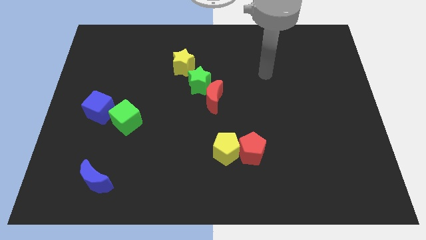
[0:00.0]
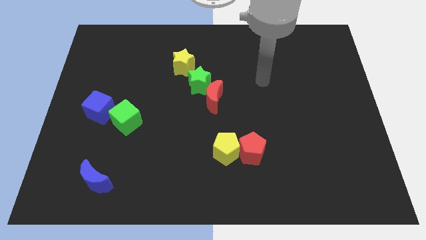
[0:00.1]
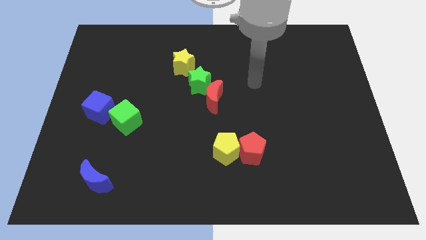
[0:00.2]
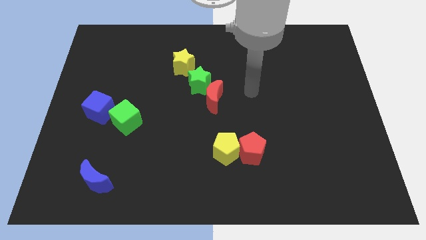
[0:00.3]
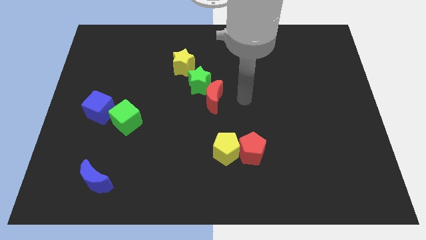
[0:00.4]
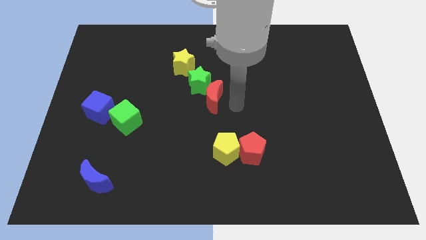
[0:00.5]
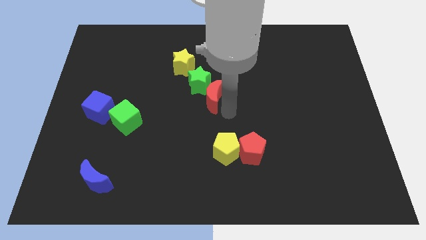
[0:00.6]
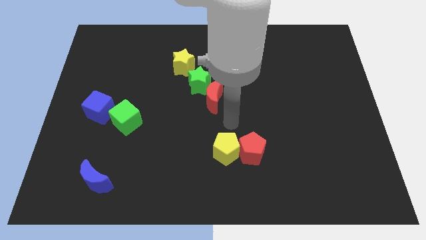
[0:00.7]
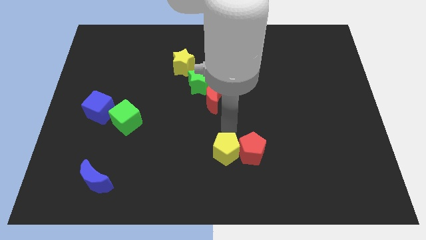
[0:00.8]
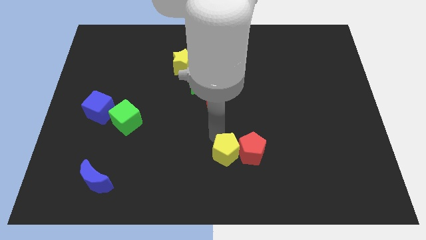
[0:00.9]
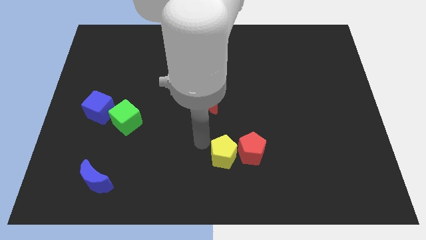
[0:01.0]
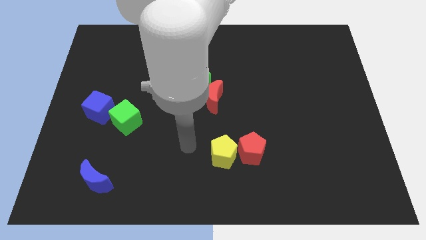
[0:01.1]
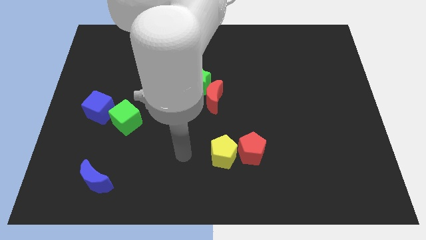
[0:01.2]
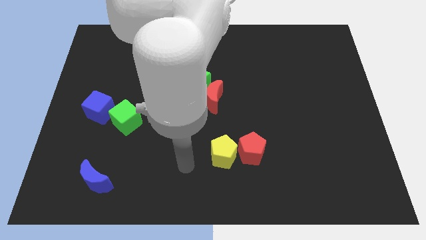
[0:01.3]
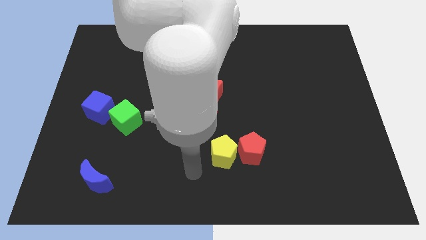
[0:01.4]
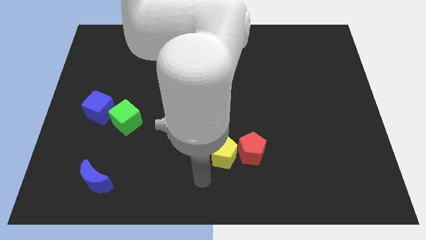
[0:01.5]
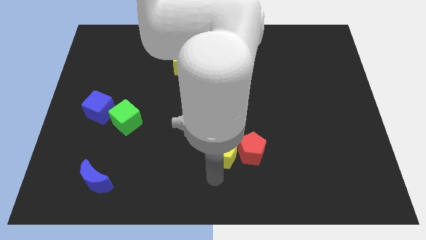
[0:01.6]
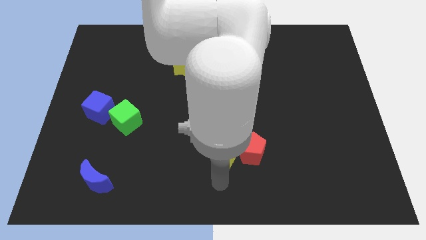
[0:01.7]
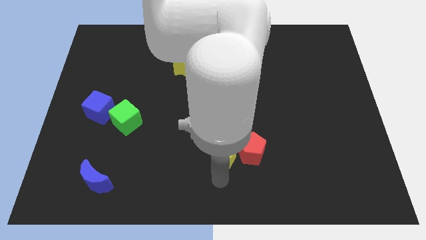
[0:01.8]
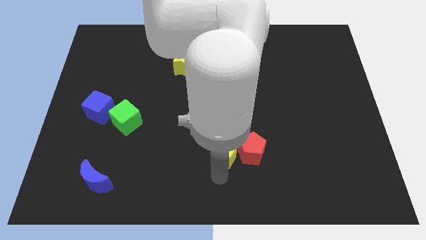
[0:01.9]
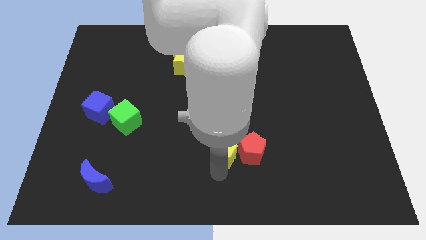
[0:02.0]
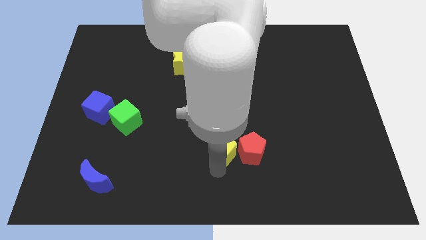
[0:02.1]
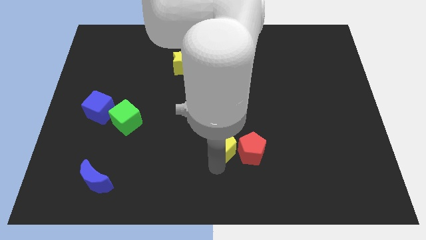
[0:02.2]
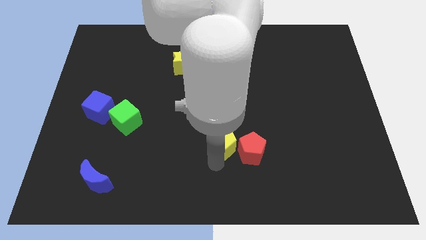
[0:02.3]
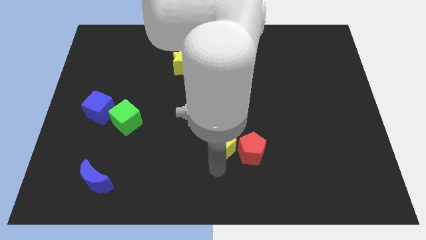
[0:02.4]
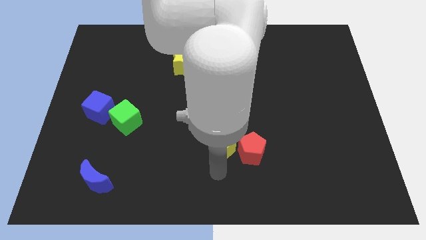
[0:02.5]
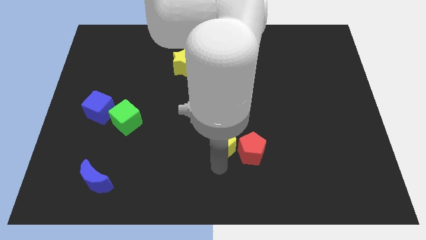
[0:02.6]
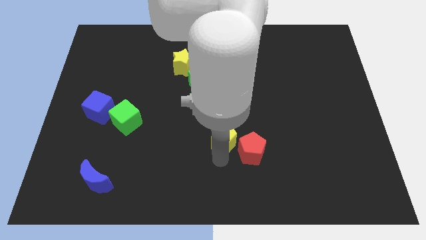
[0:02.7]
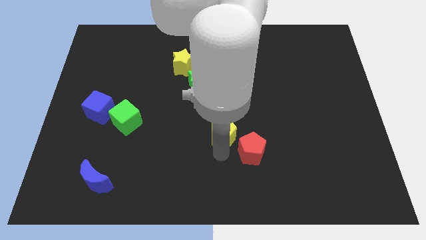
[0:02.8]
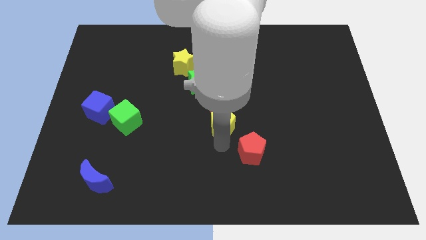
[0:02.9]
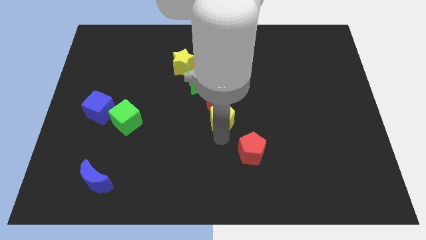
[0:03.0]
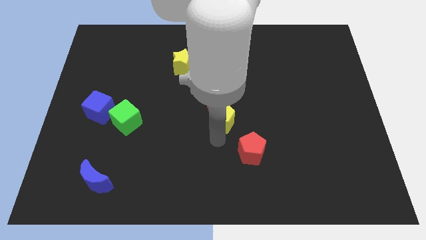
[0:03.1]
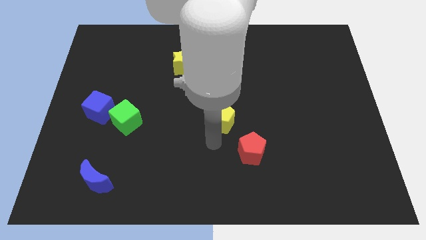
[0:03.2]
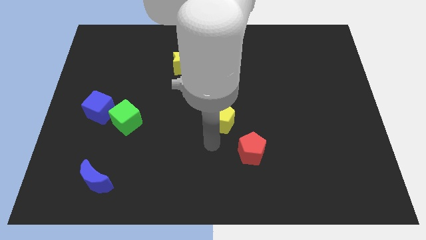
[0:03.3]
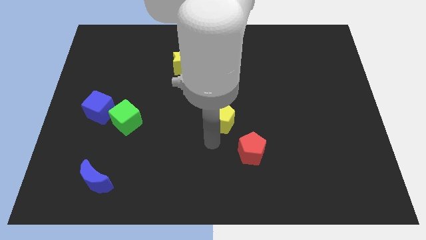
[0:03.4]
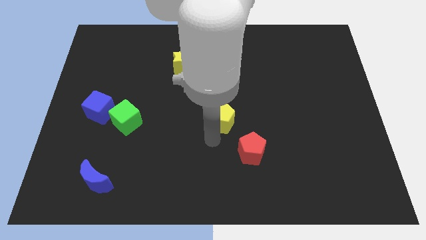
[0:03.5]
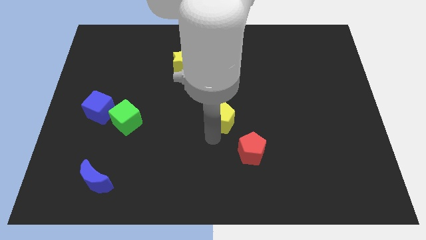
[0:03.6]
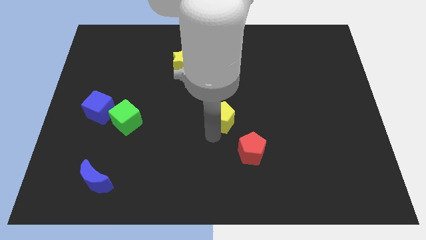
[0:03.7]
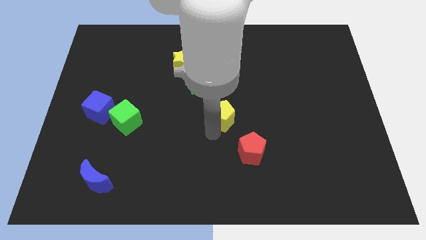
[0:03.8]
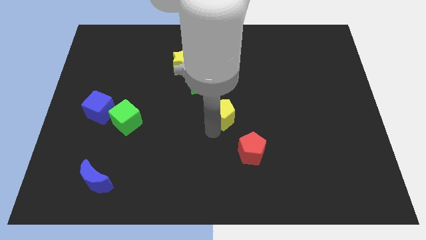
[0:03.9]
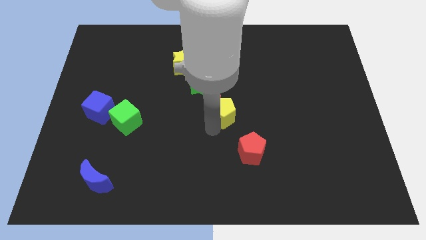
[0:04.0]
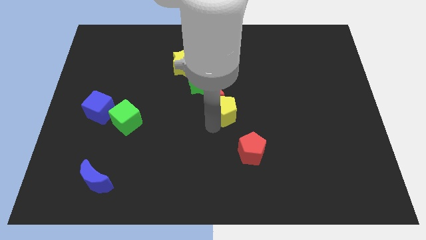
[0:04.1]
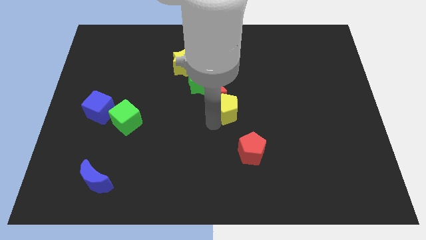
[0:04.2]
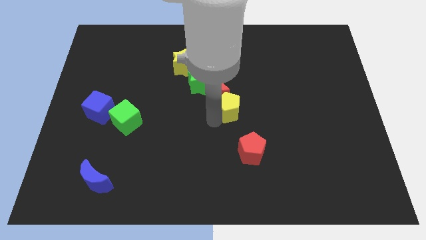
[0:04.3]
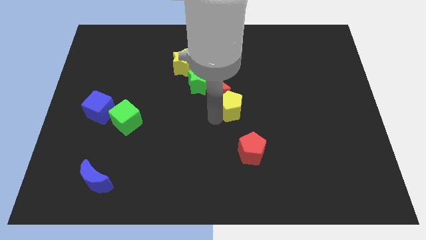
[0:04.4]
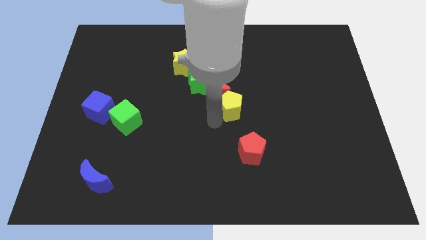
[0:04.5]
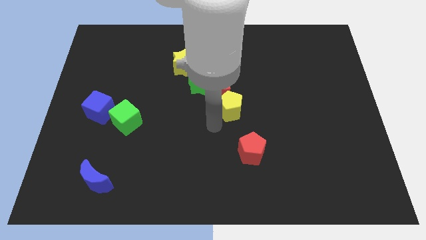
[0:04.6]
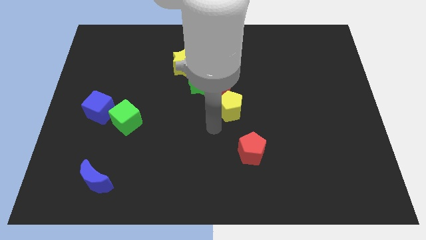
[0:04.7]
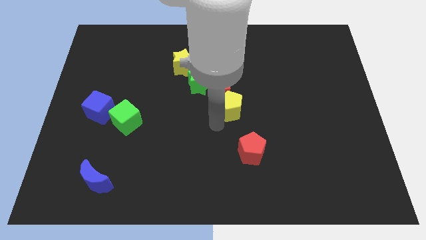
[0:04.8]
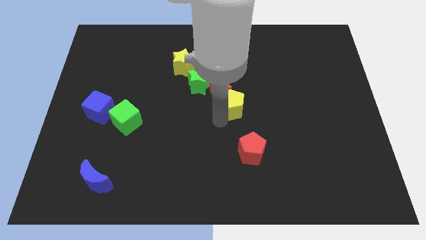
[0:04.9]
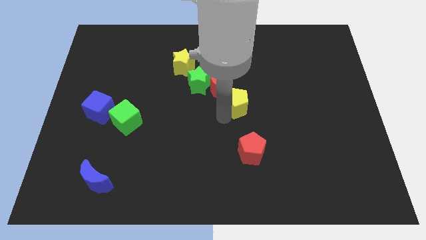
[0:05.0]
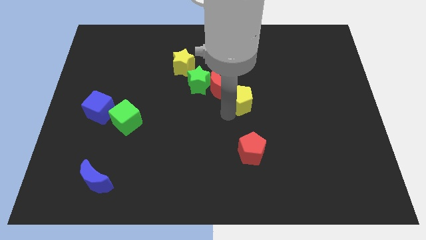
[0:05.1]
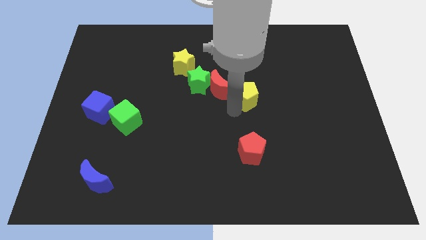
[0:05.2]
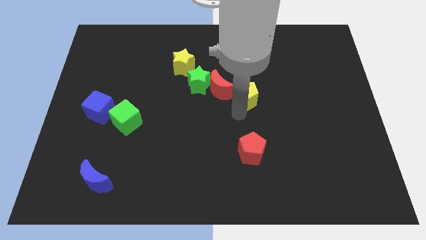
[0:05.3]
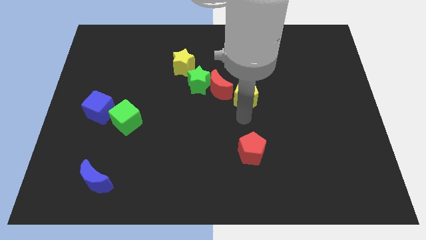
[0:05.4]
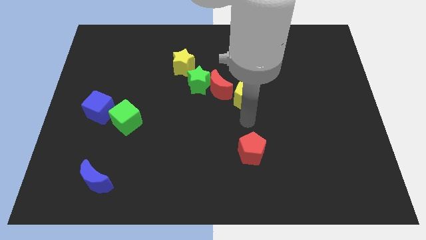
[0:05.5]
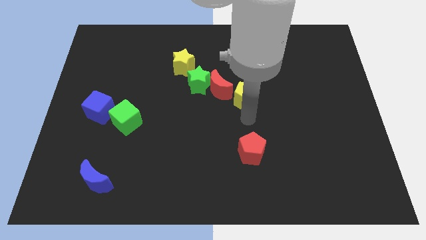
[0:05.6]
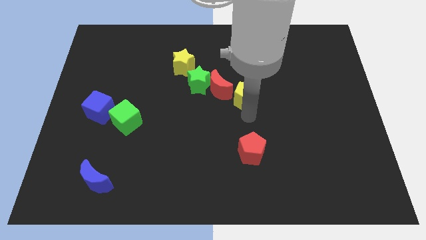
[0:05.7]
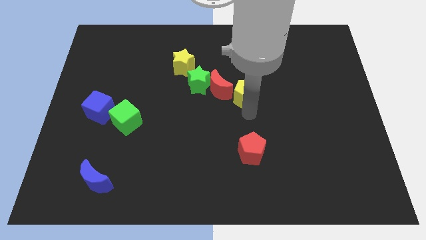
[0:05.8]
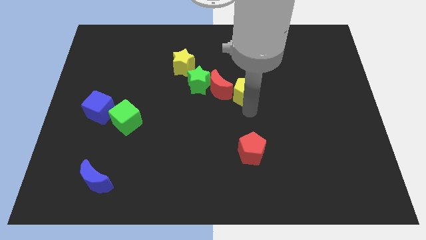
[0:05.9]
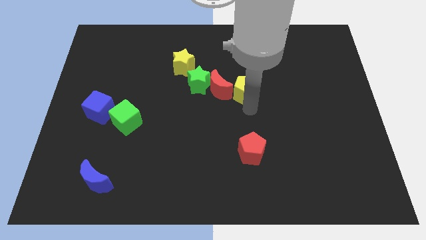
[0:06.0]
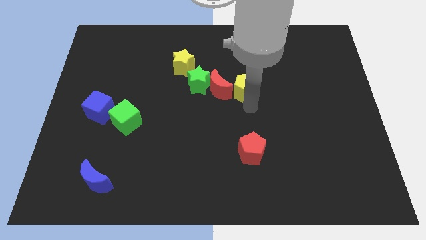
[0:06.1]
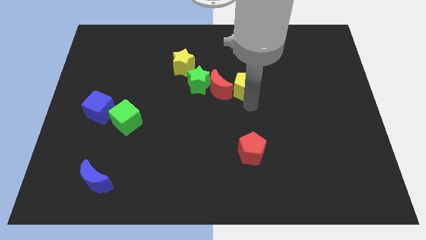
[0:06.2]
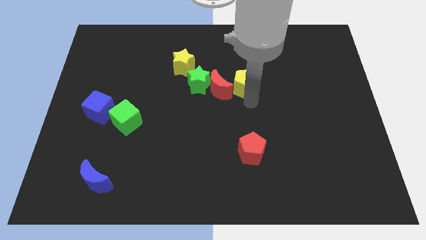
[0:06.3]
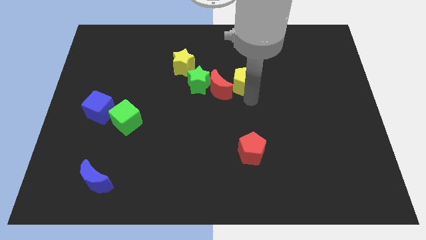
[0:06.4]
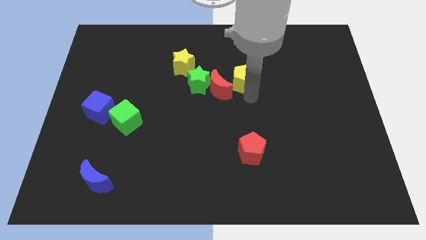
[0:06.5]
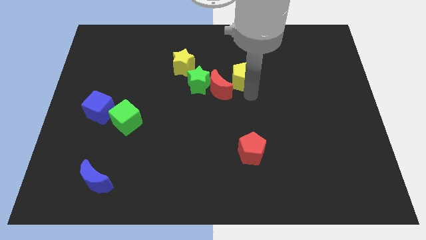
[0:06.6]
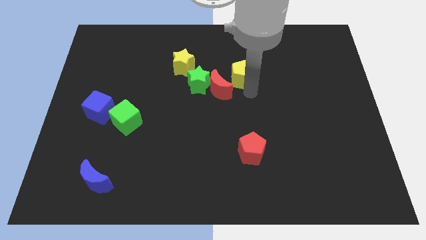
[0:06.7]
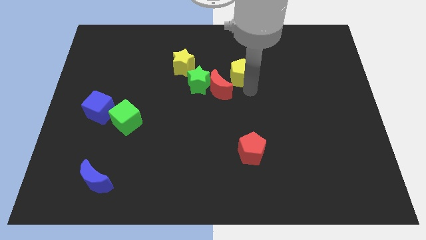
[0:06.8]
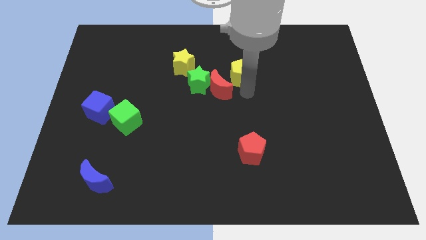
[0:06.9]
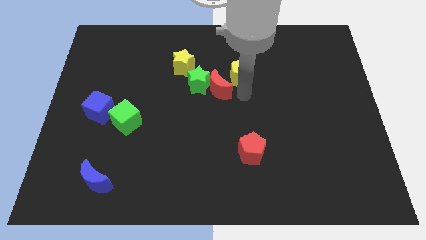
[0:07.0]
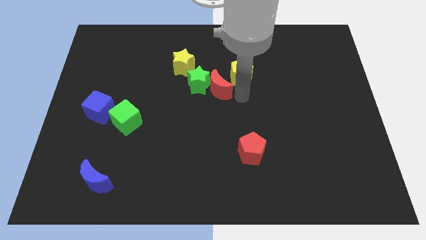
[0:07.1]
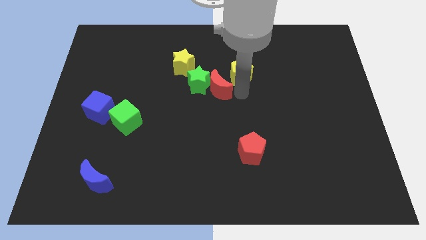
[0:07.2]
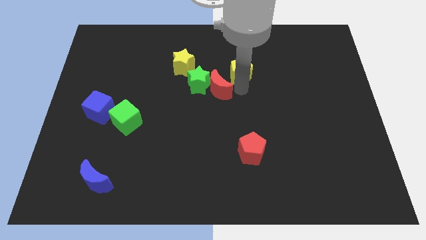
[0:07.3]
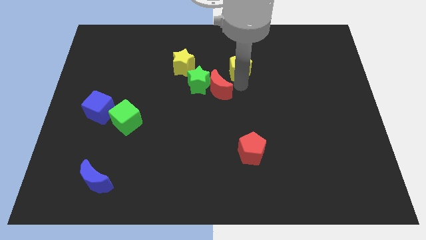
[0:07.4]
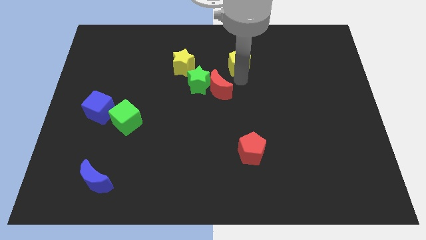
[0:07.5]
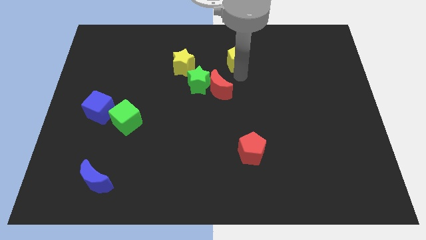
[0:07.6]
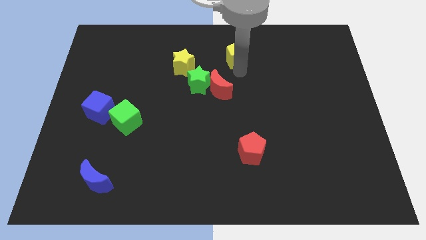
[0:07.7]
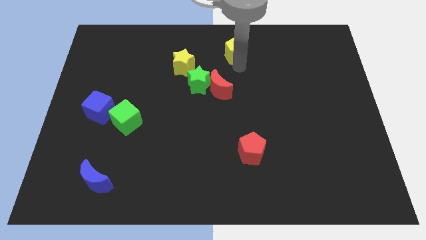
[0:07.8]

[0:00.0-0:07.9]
put the yellow pentagon to the towards your base
